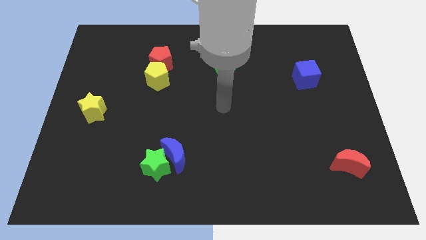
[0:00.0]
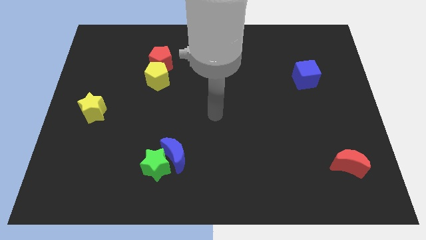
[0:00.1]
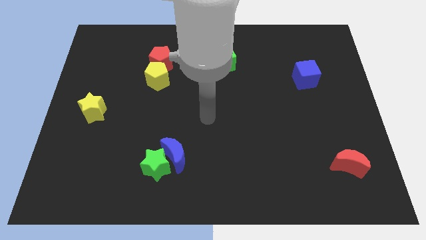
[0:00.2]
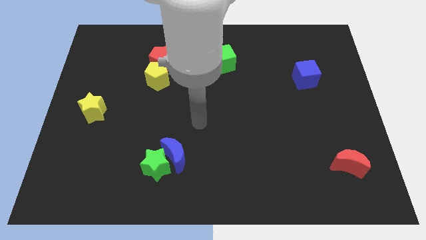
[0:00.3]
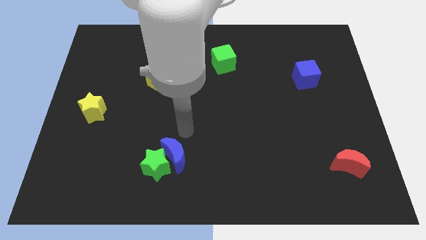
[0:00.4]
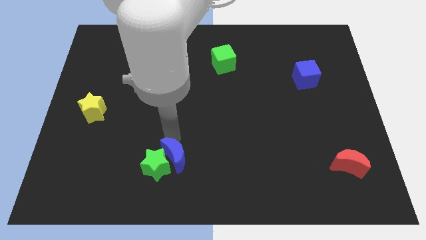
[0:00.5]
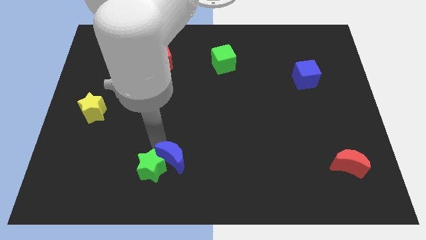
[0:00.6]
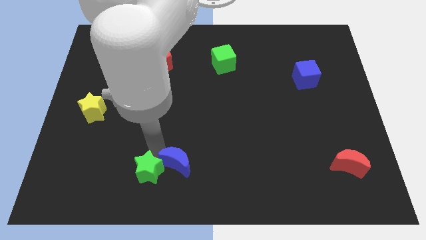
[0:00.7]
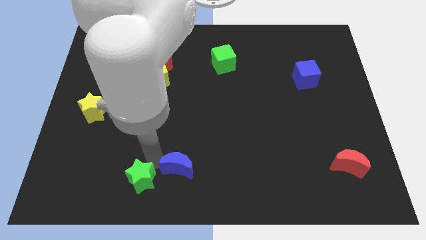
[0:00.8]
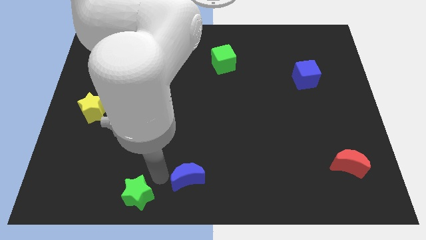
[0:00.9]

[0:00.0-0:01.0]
move the blue moon away from the green star

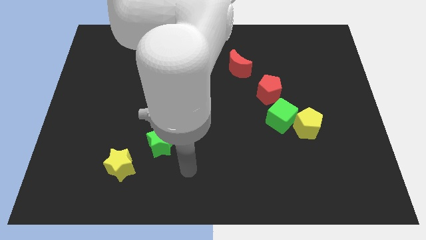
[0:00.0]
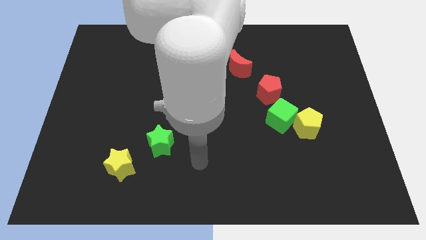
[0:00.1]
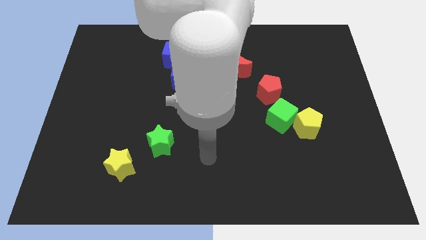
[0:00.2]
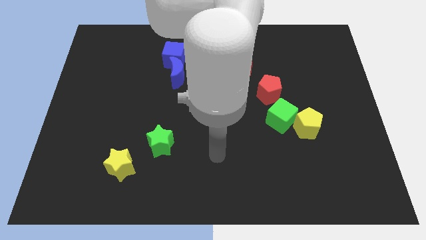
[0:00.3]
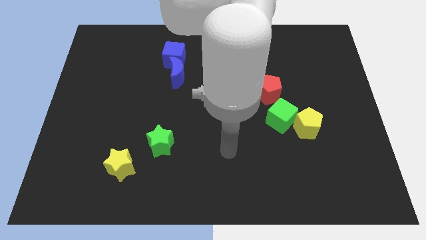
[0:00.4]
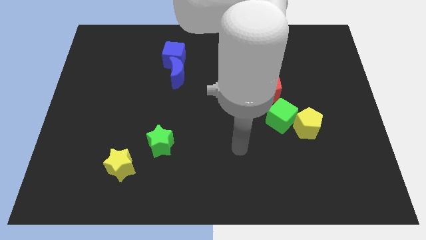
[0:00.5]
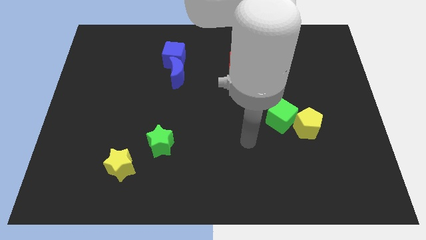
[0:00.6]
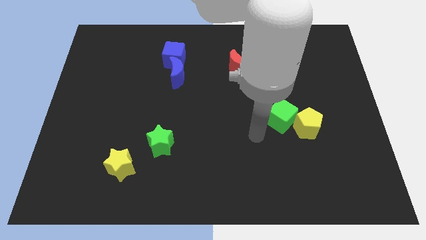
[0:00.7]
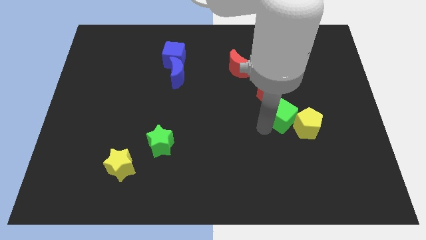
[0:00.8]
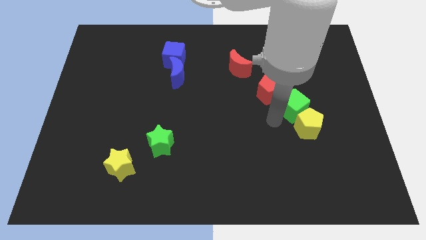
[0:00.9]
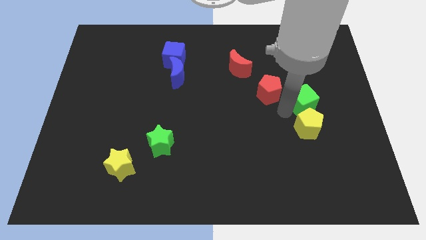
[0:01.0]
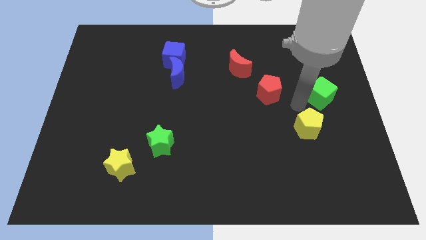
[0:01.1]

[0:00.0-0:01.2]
separate the yellow pentagon from the green cube

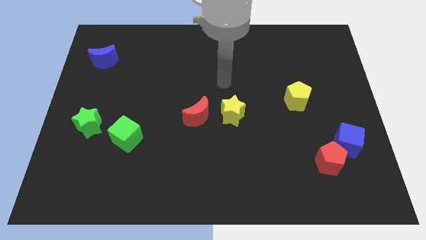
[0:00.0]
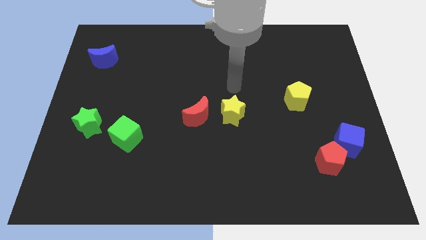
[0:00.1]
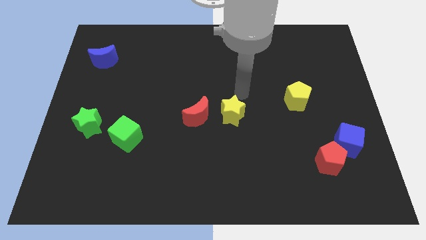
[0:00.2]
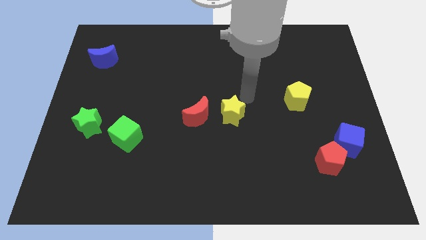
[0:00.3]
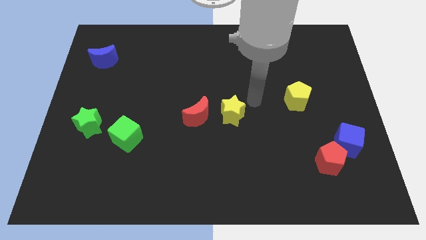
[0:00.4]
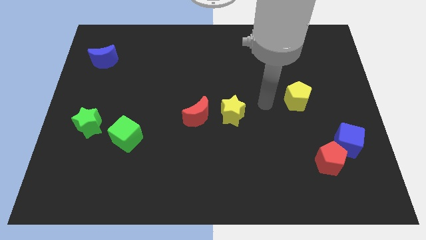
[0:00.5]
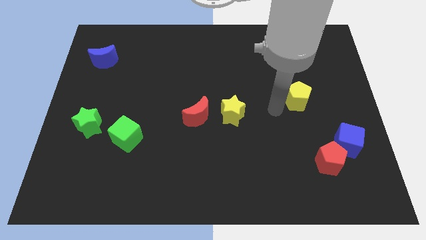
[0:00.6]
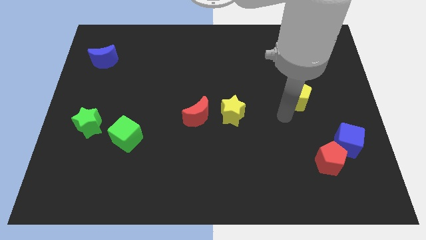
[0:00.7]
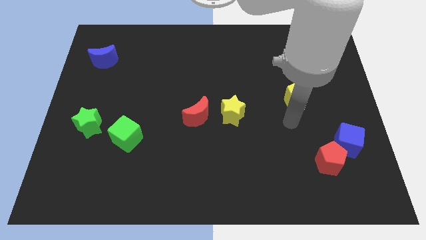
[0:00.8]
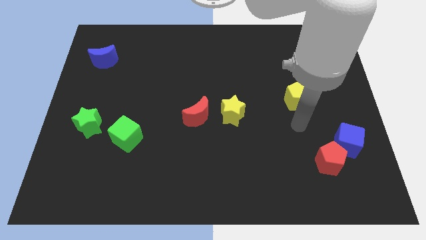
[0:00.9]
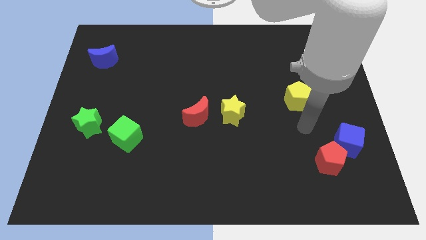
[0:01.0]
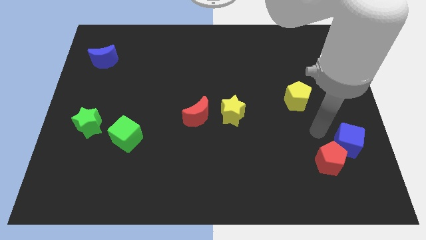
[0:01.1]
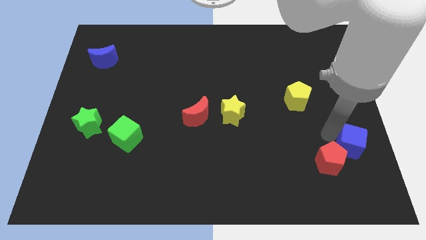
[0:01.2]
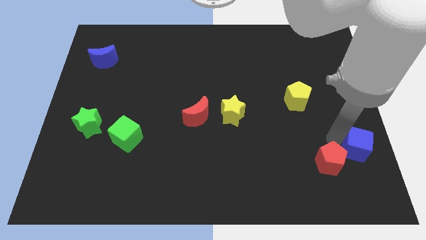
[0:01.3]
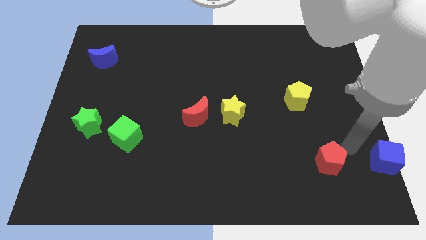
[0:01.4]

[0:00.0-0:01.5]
move the red pentagon away from the blue cube

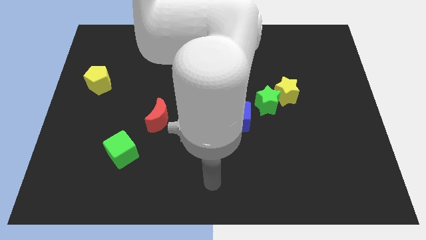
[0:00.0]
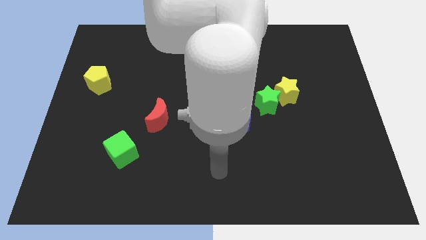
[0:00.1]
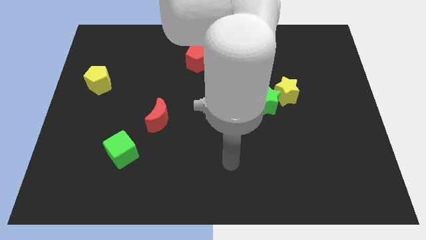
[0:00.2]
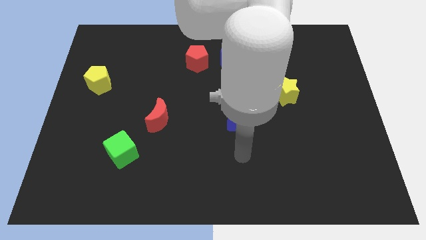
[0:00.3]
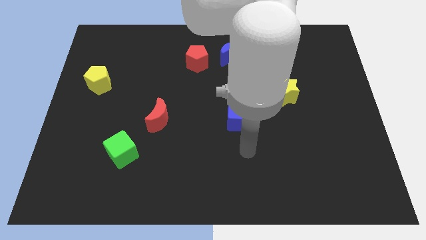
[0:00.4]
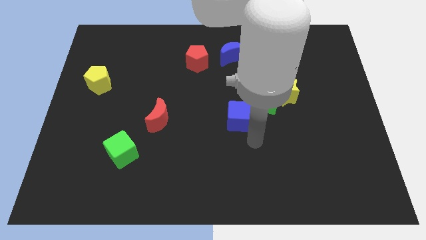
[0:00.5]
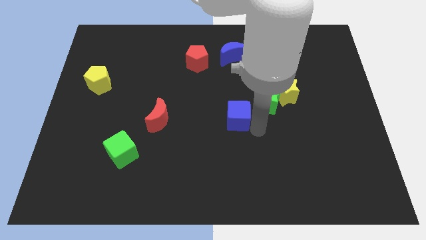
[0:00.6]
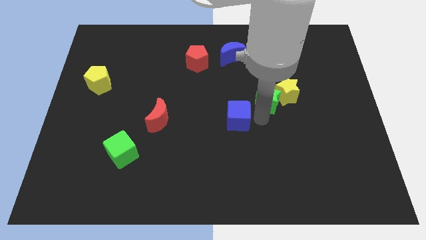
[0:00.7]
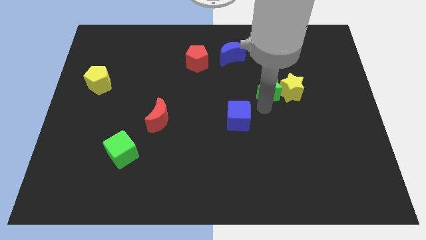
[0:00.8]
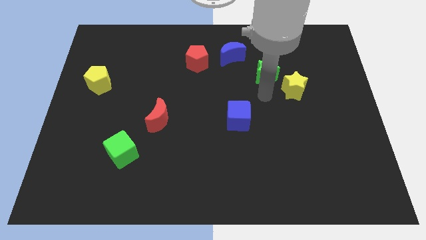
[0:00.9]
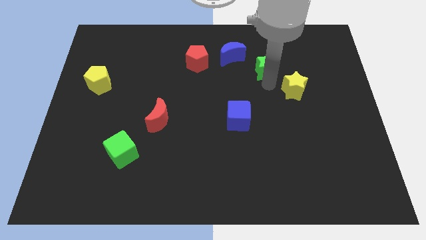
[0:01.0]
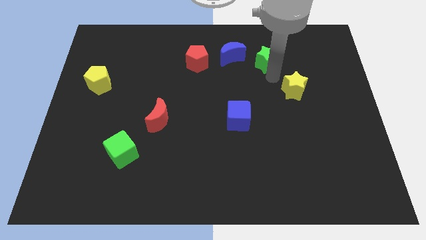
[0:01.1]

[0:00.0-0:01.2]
move the yellow star away from the green star

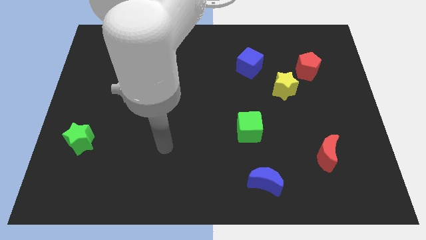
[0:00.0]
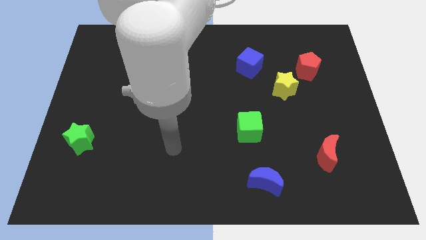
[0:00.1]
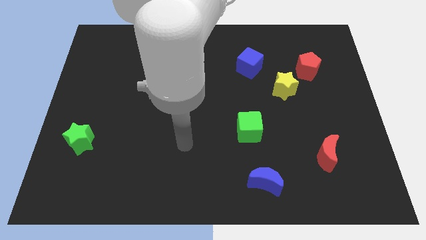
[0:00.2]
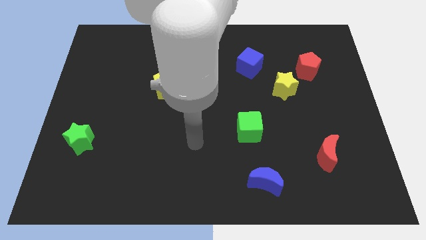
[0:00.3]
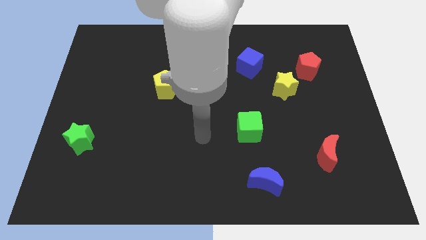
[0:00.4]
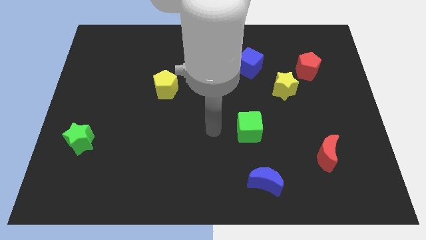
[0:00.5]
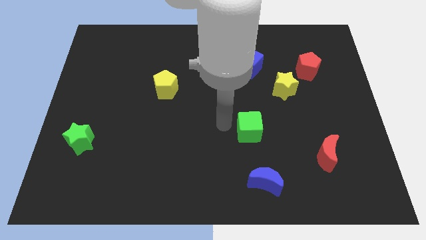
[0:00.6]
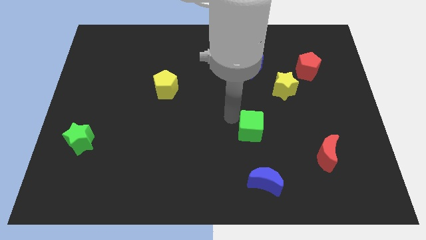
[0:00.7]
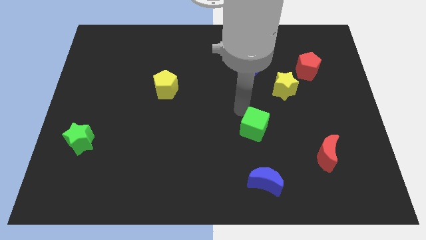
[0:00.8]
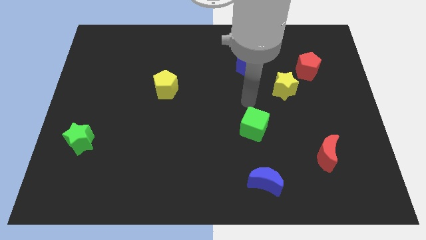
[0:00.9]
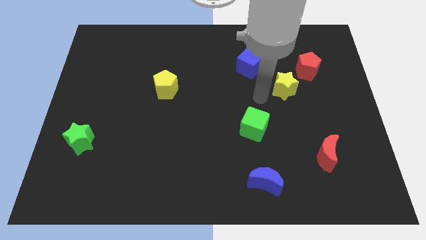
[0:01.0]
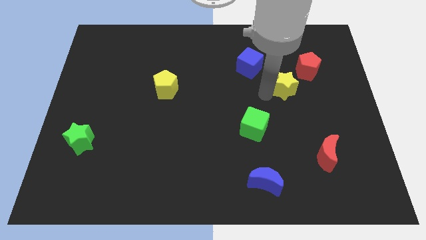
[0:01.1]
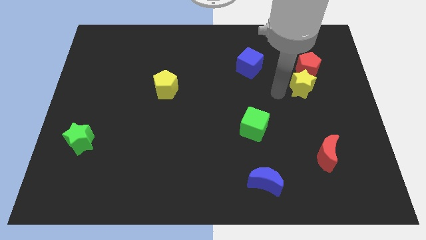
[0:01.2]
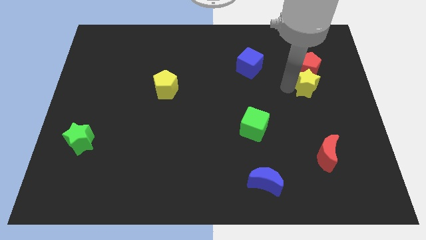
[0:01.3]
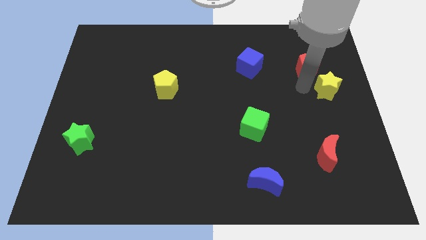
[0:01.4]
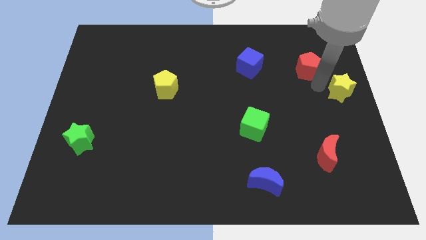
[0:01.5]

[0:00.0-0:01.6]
move the red pentagon away from the yellow star

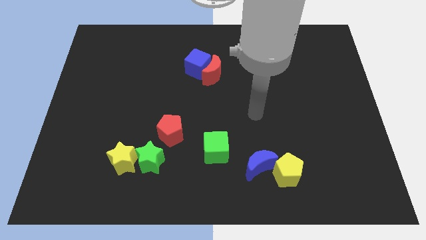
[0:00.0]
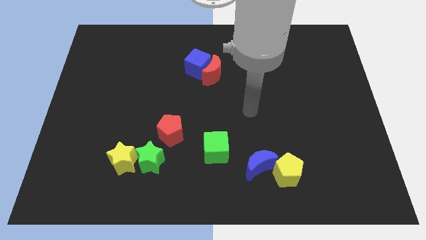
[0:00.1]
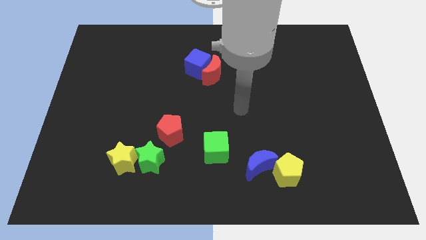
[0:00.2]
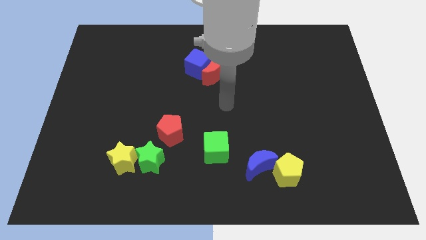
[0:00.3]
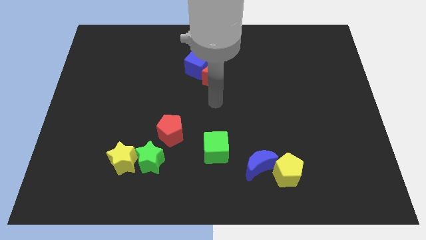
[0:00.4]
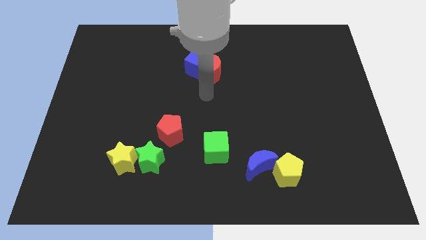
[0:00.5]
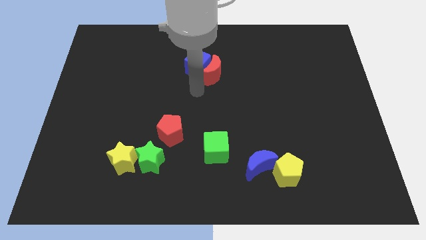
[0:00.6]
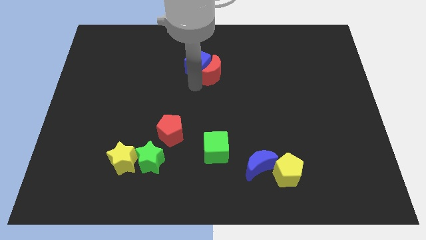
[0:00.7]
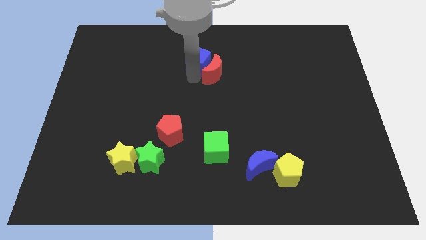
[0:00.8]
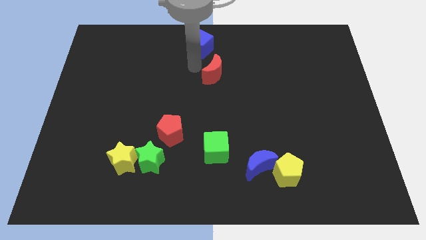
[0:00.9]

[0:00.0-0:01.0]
pull the red moon apart from the blue cube

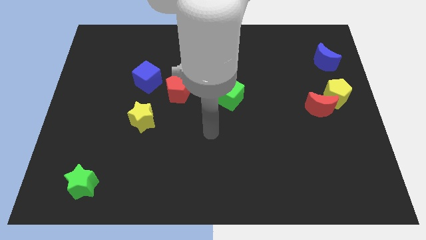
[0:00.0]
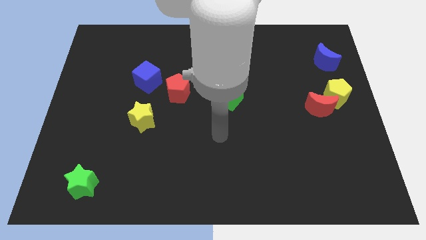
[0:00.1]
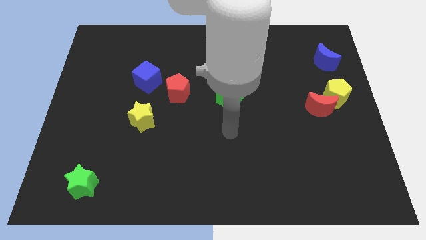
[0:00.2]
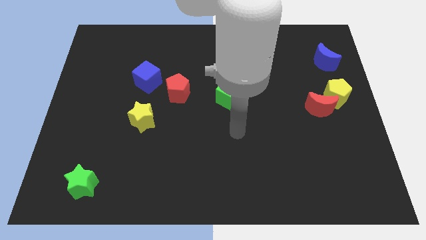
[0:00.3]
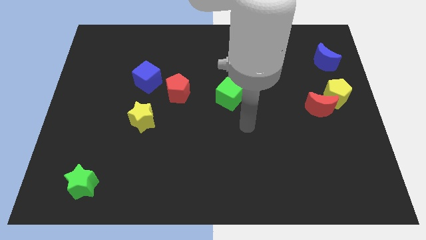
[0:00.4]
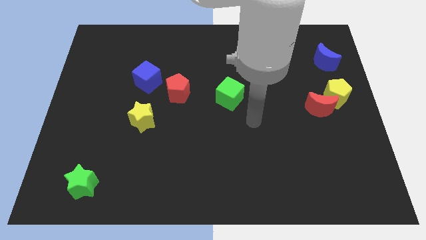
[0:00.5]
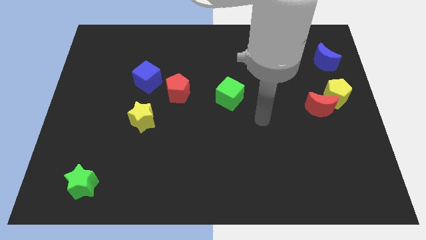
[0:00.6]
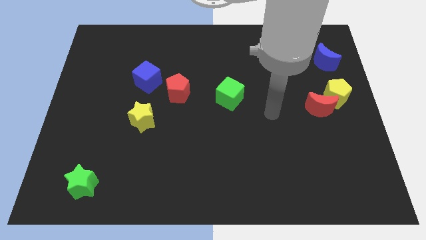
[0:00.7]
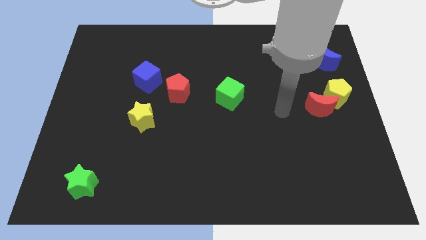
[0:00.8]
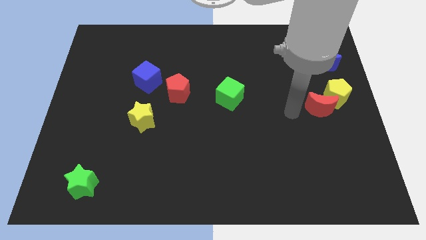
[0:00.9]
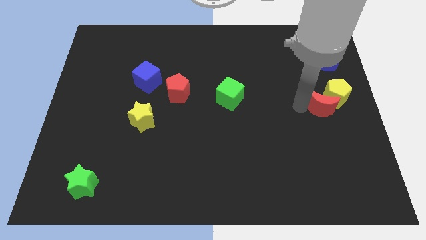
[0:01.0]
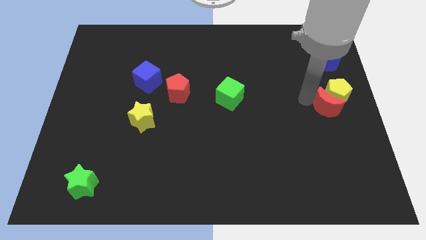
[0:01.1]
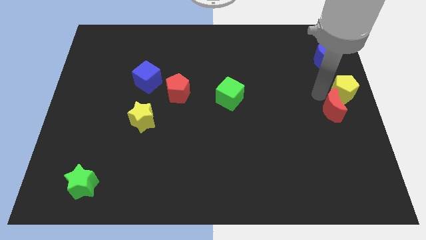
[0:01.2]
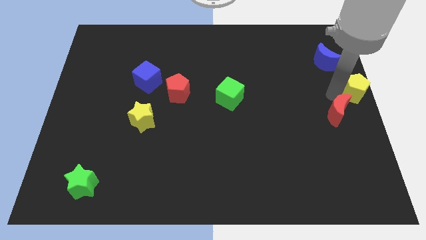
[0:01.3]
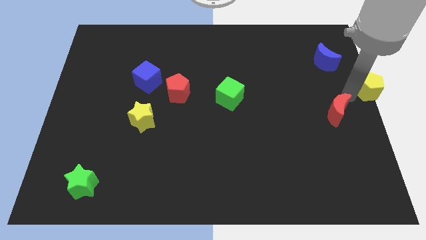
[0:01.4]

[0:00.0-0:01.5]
separate the red moon from the yellow pentagon

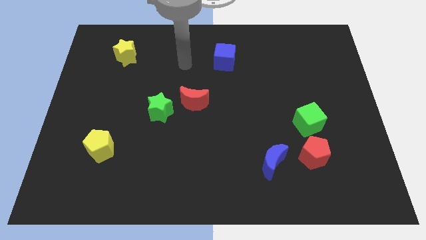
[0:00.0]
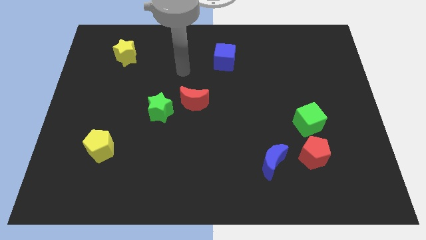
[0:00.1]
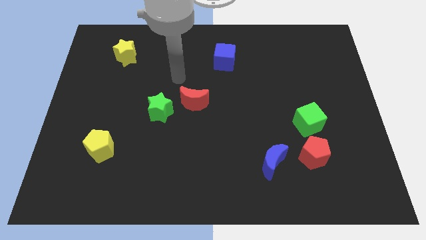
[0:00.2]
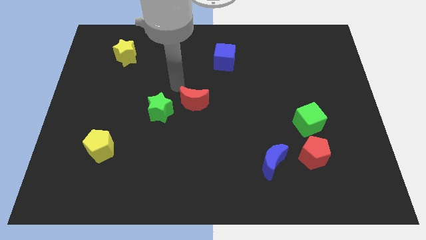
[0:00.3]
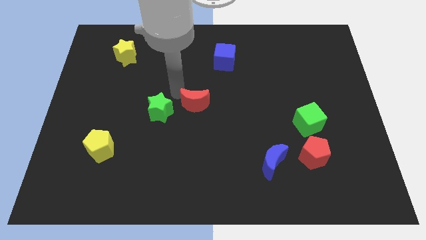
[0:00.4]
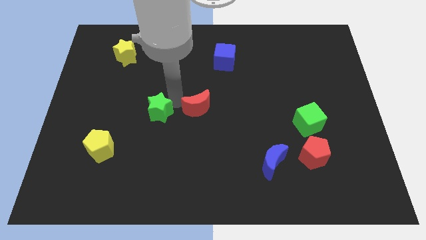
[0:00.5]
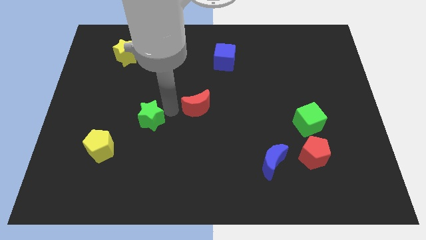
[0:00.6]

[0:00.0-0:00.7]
move the red moon away from the green star
